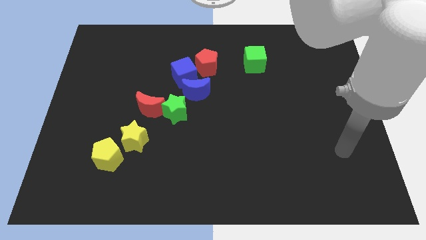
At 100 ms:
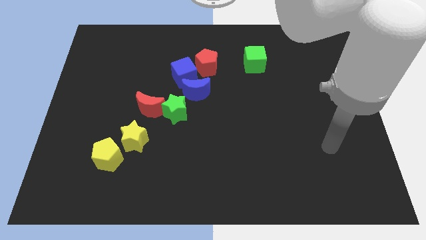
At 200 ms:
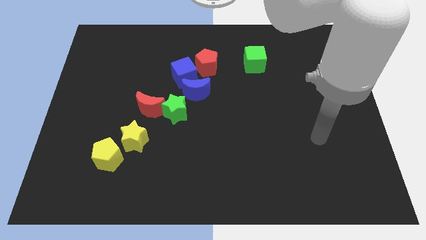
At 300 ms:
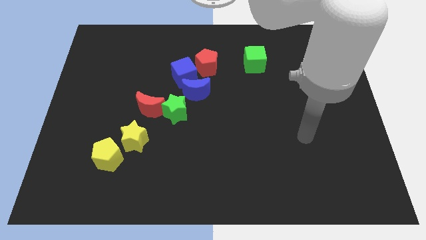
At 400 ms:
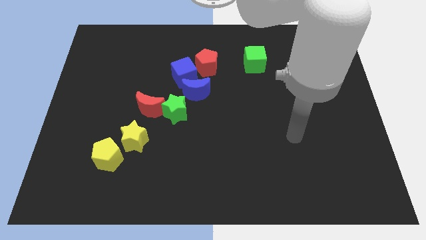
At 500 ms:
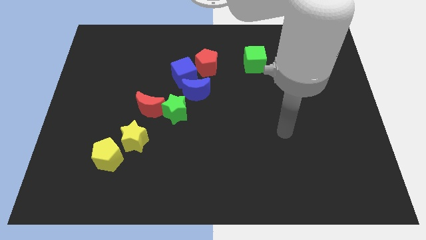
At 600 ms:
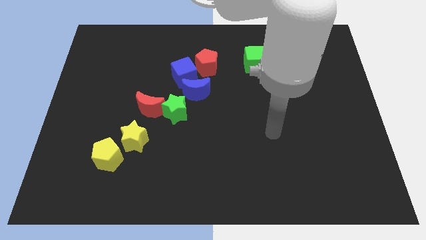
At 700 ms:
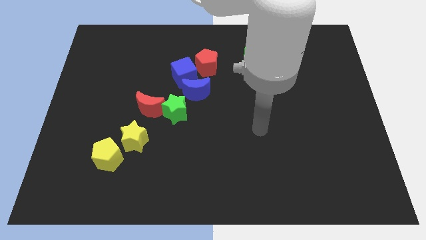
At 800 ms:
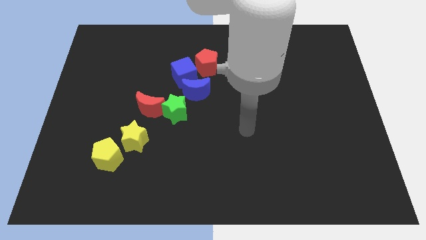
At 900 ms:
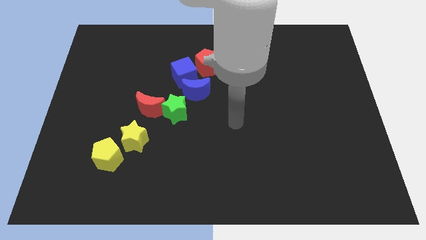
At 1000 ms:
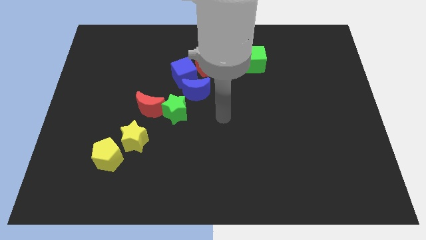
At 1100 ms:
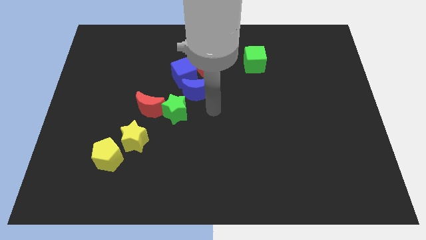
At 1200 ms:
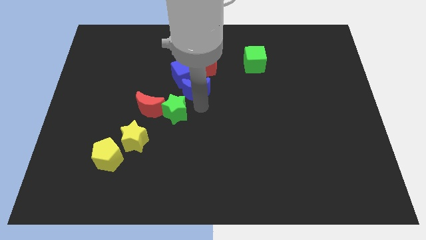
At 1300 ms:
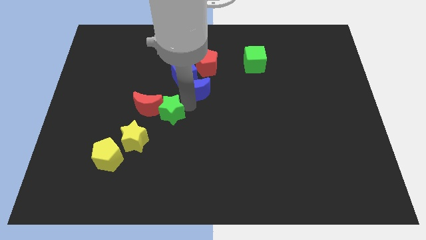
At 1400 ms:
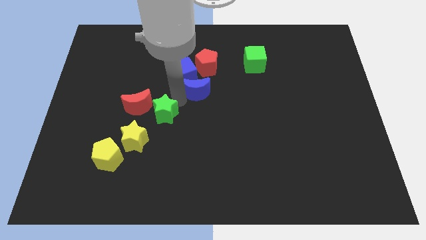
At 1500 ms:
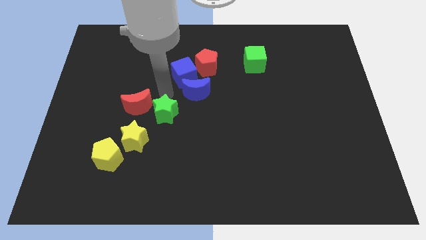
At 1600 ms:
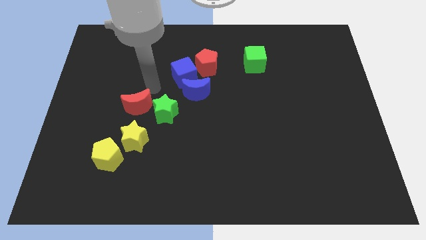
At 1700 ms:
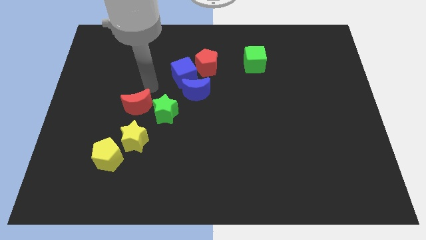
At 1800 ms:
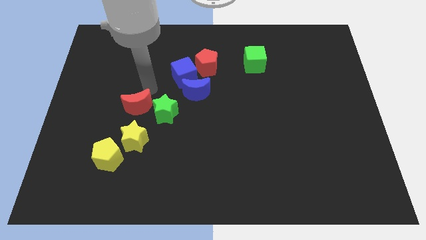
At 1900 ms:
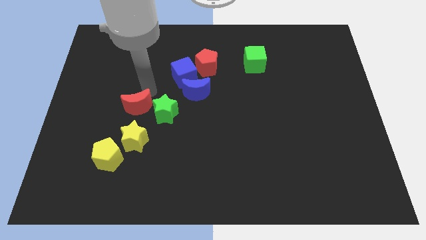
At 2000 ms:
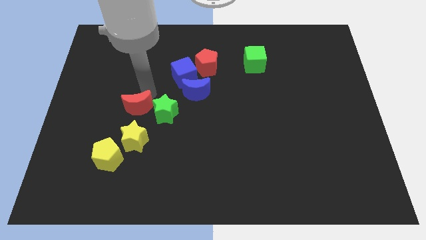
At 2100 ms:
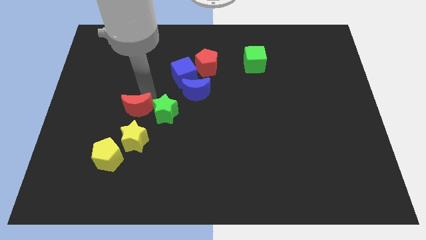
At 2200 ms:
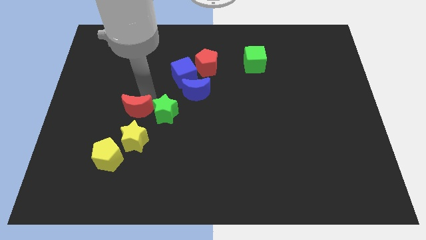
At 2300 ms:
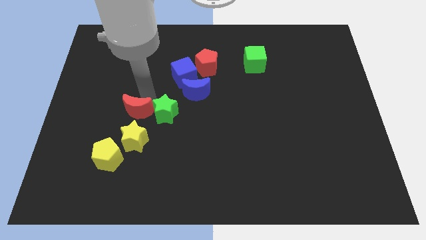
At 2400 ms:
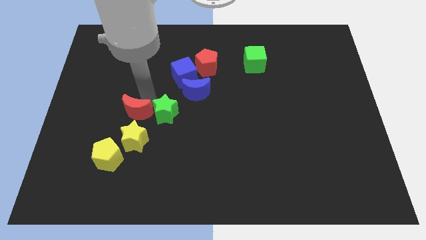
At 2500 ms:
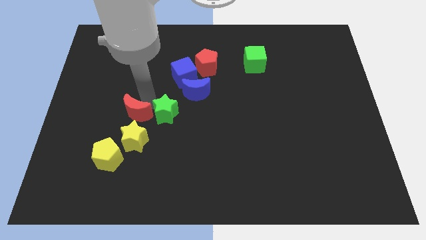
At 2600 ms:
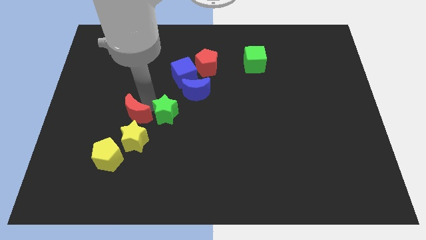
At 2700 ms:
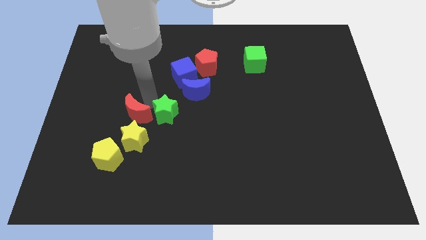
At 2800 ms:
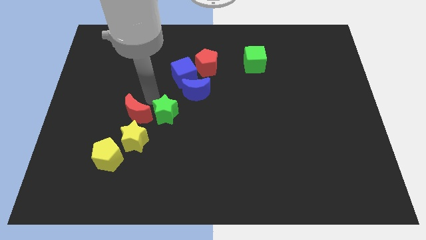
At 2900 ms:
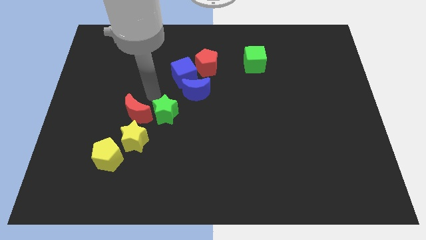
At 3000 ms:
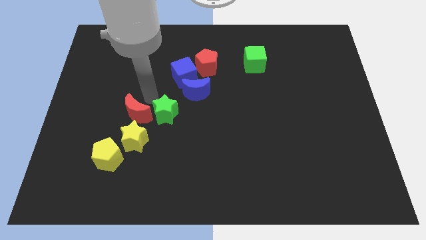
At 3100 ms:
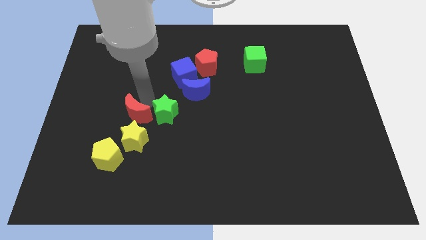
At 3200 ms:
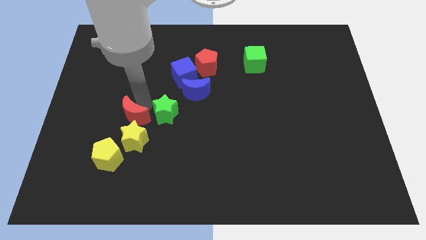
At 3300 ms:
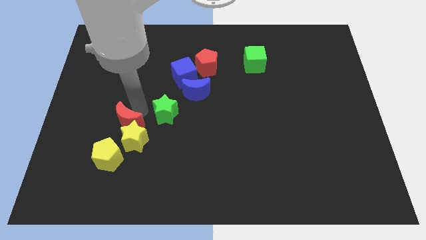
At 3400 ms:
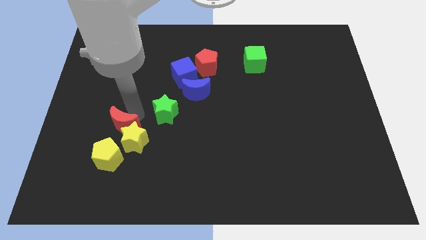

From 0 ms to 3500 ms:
push the red moon a little down and left diagonally

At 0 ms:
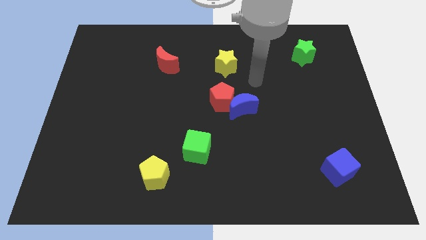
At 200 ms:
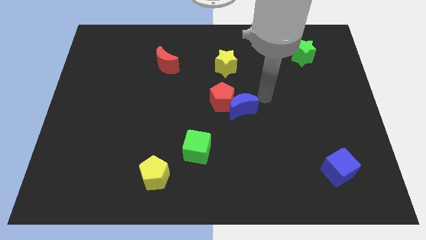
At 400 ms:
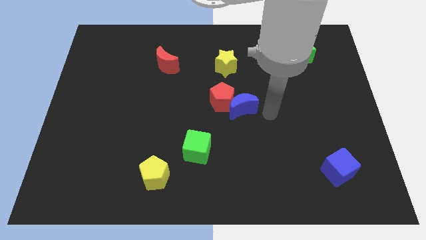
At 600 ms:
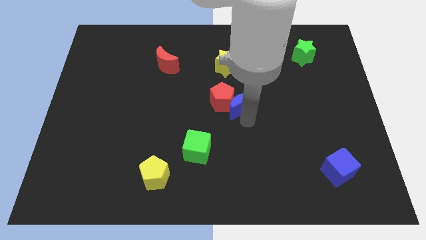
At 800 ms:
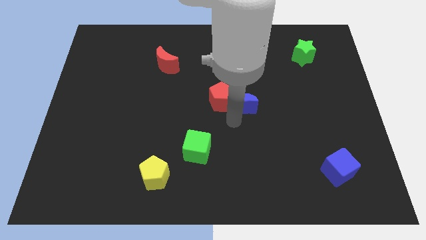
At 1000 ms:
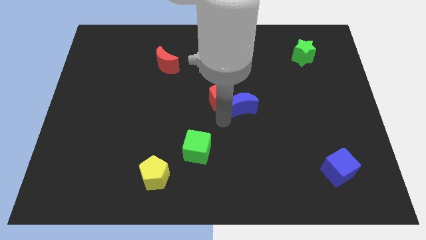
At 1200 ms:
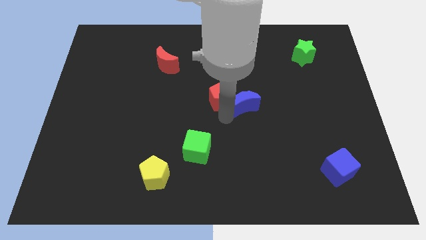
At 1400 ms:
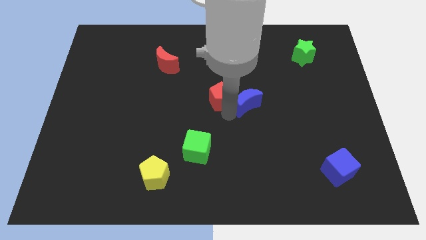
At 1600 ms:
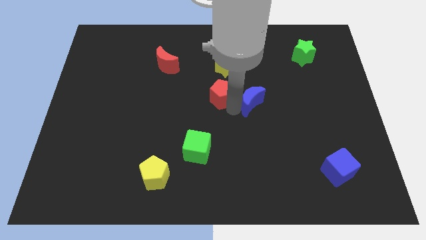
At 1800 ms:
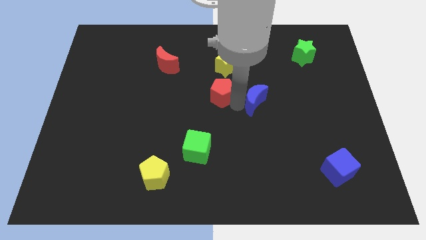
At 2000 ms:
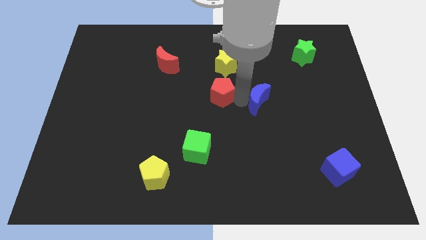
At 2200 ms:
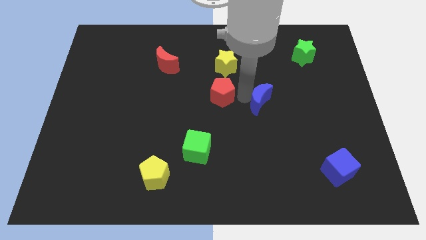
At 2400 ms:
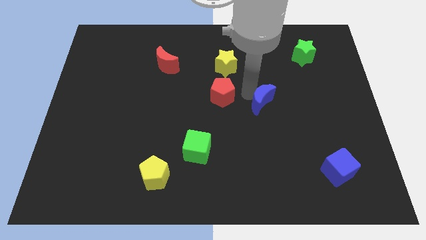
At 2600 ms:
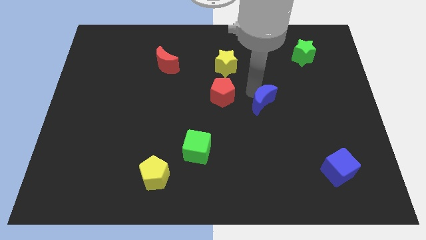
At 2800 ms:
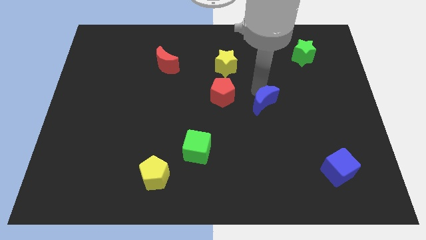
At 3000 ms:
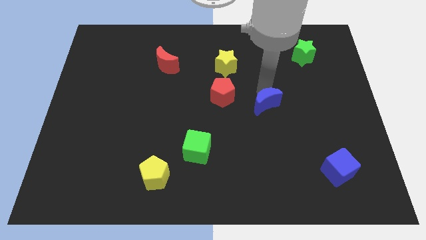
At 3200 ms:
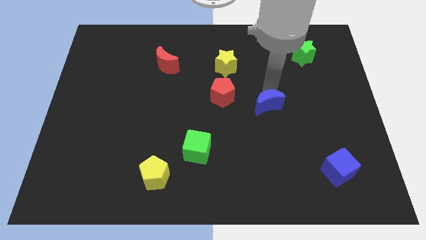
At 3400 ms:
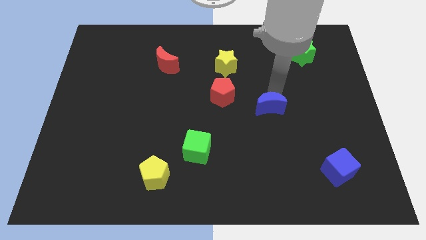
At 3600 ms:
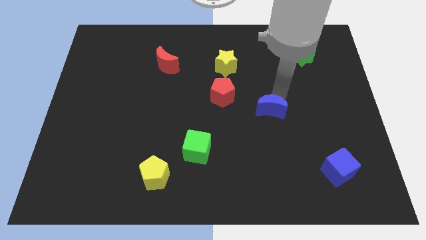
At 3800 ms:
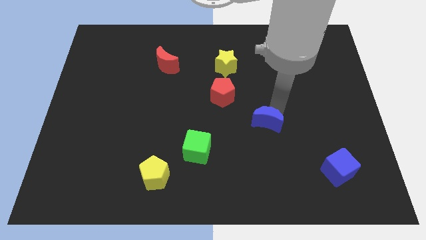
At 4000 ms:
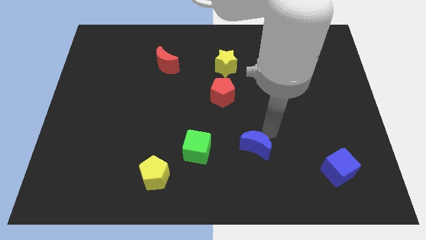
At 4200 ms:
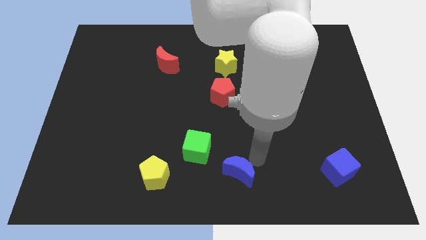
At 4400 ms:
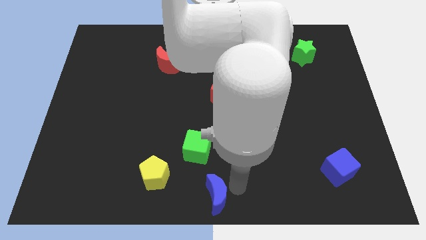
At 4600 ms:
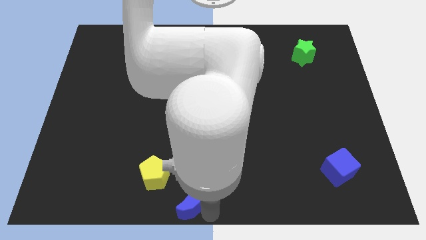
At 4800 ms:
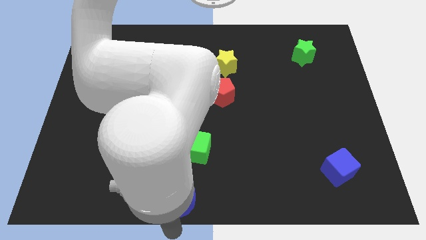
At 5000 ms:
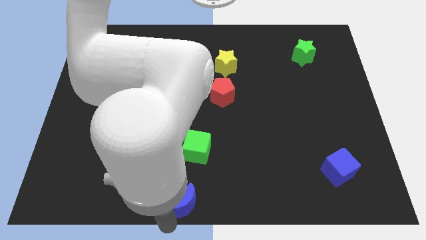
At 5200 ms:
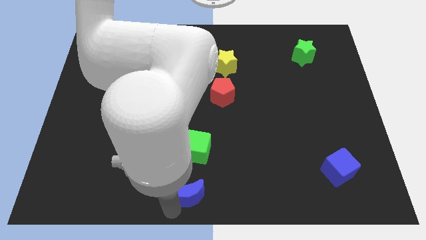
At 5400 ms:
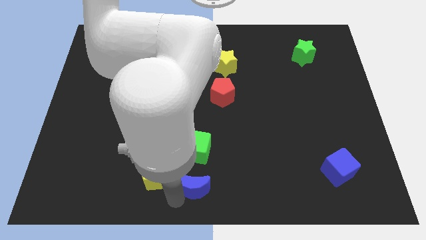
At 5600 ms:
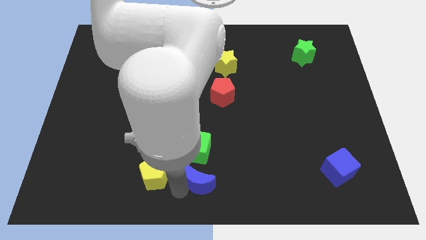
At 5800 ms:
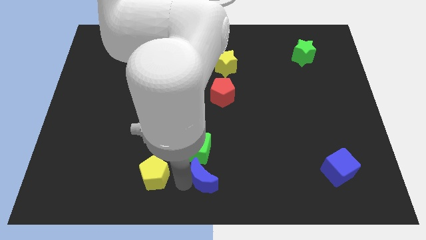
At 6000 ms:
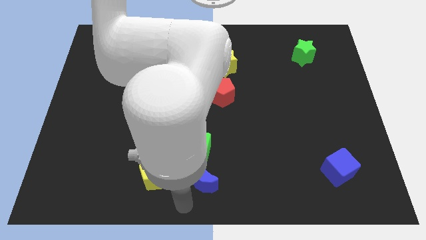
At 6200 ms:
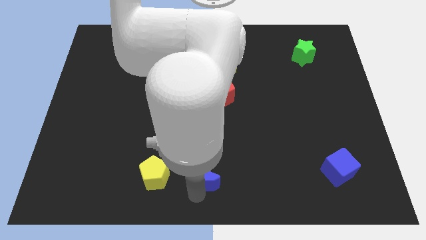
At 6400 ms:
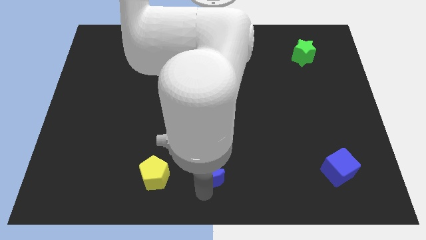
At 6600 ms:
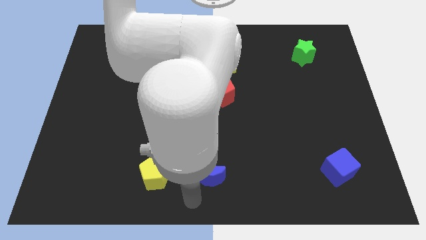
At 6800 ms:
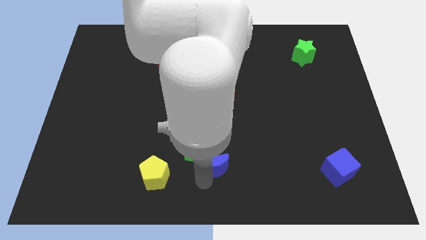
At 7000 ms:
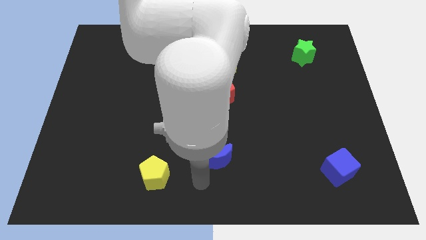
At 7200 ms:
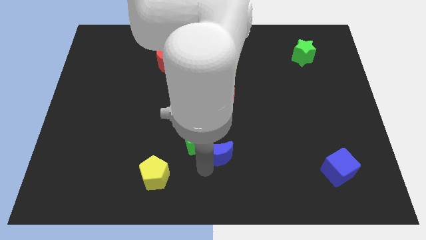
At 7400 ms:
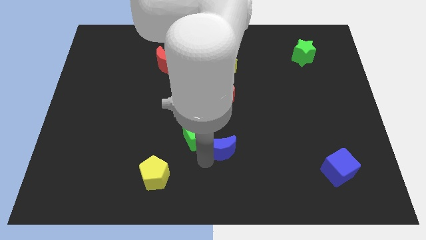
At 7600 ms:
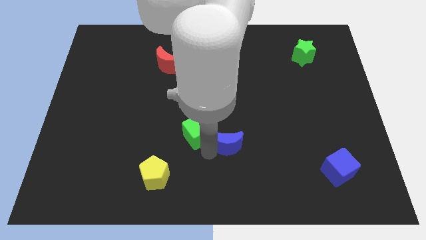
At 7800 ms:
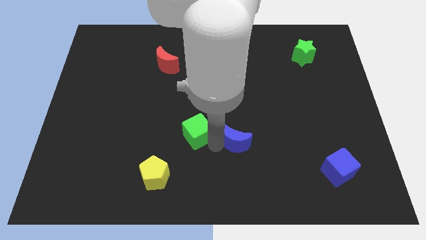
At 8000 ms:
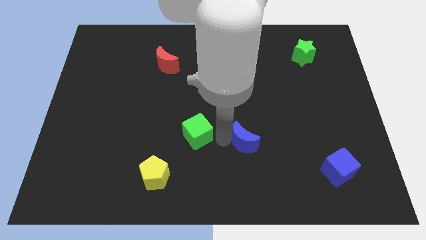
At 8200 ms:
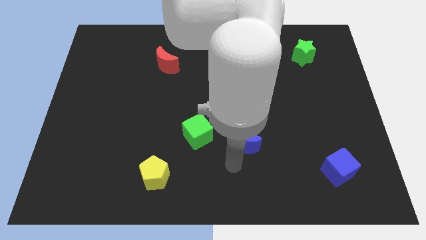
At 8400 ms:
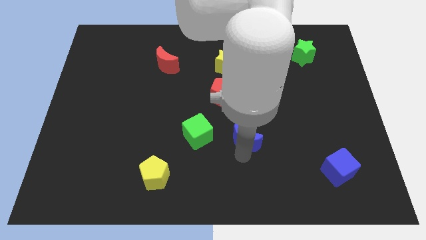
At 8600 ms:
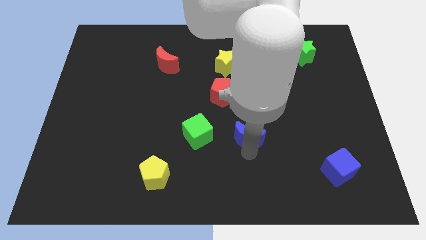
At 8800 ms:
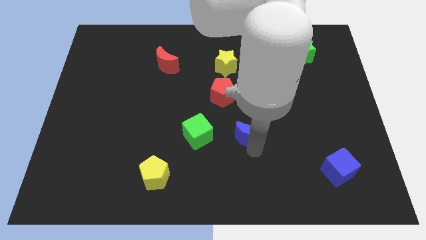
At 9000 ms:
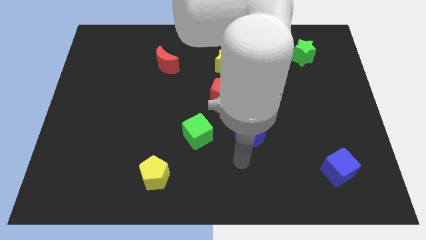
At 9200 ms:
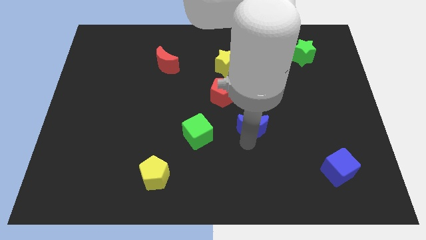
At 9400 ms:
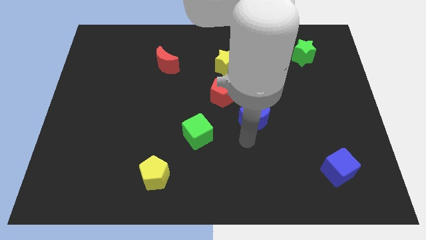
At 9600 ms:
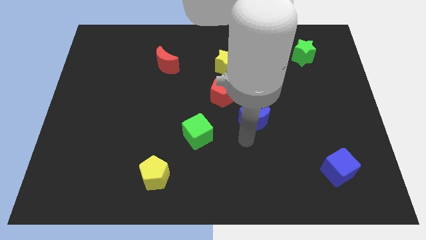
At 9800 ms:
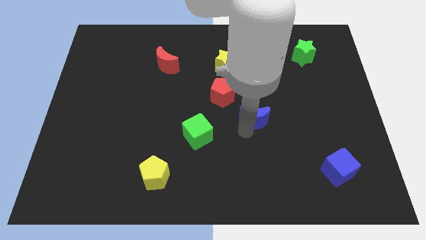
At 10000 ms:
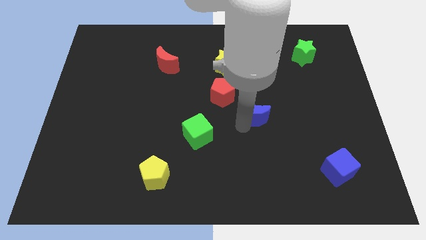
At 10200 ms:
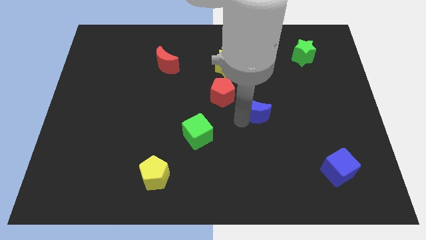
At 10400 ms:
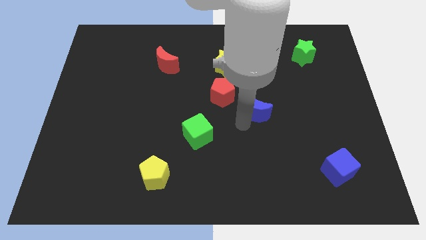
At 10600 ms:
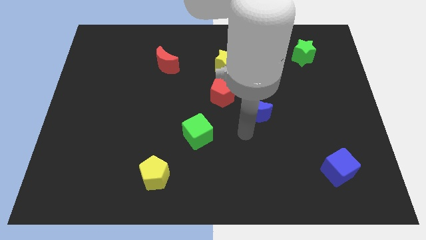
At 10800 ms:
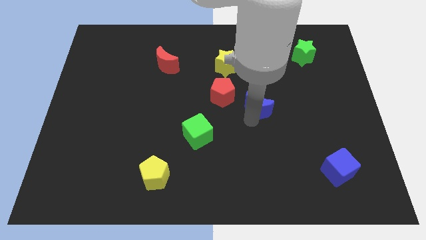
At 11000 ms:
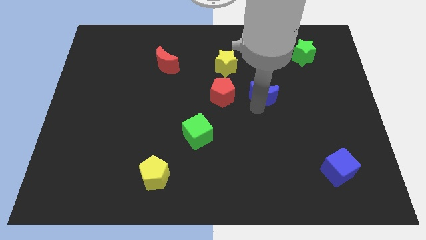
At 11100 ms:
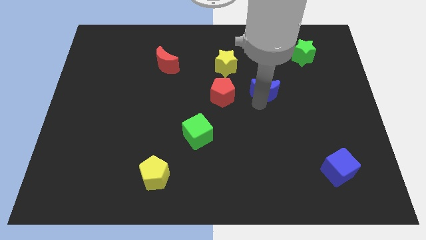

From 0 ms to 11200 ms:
push the blue moon upwards and then to the right a little
